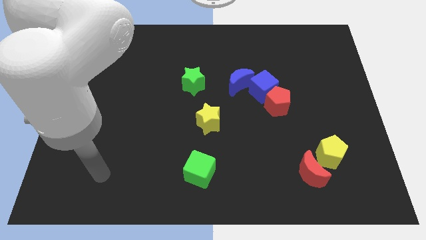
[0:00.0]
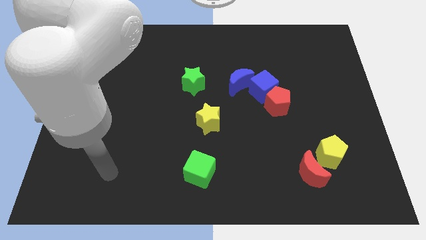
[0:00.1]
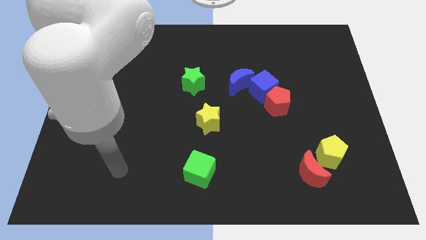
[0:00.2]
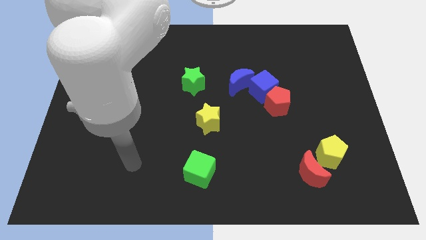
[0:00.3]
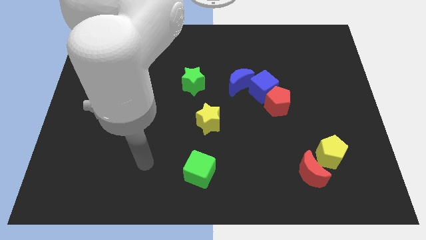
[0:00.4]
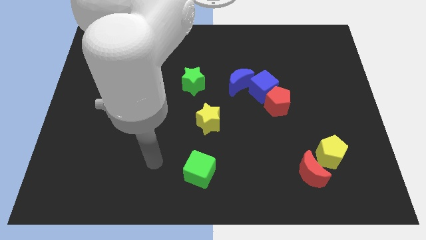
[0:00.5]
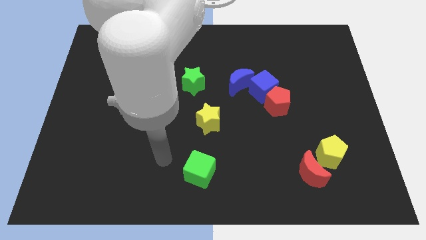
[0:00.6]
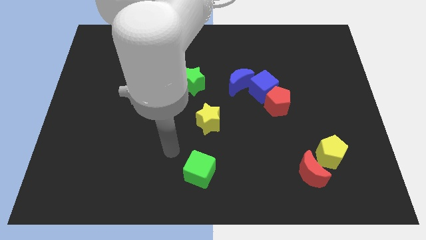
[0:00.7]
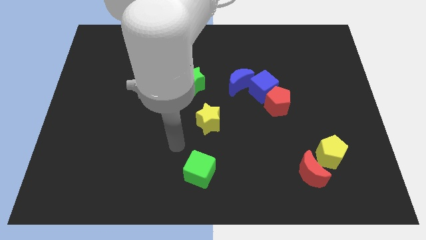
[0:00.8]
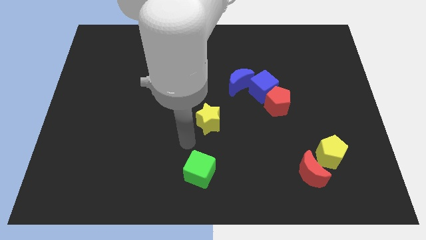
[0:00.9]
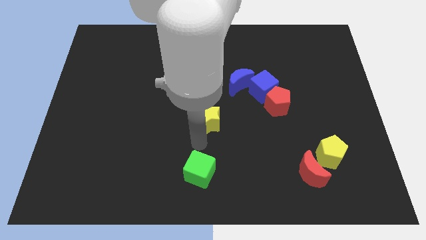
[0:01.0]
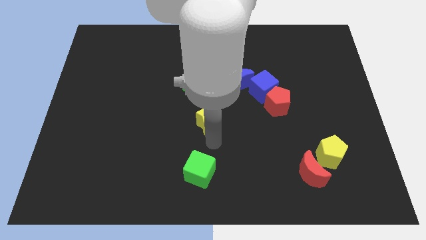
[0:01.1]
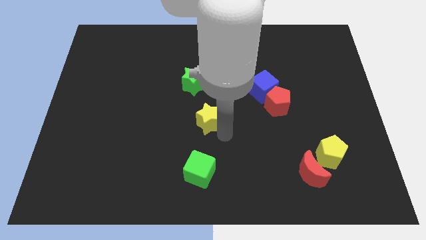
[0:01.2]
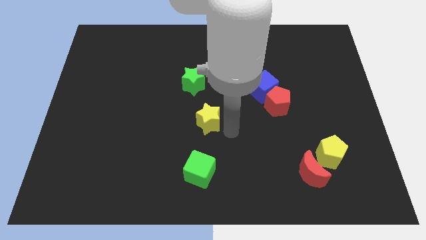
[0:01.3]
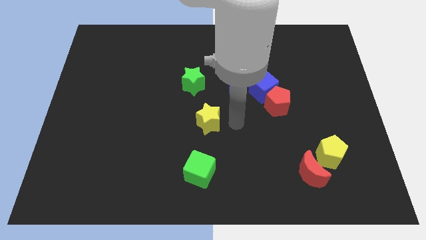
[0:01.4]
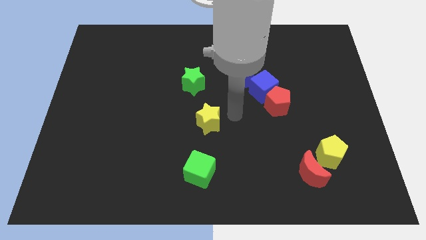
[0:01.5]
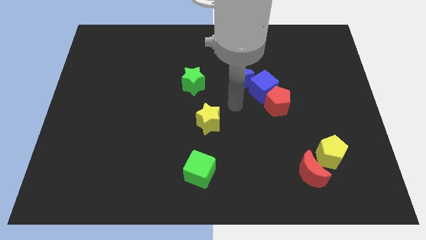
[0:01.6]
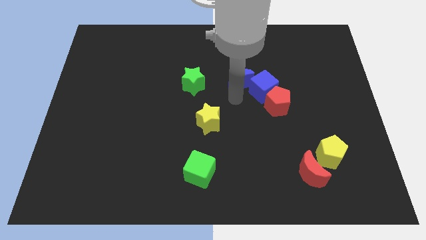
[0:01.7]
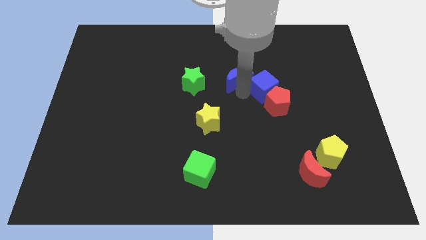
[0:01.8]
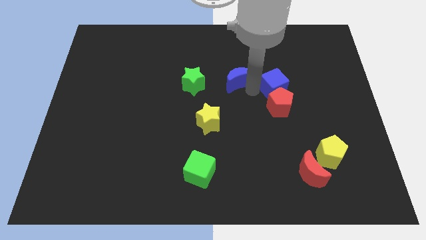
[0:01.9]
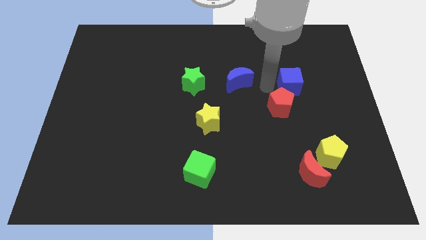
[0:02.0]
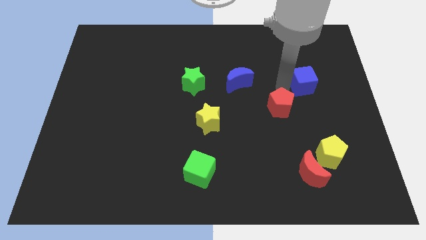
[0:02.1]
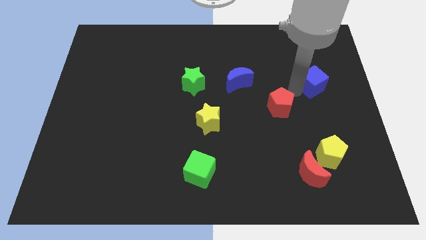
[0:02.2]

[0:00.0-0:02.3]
pull the red pentagon apart from the blue cube

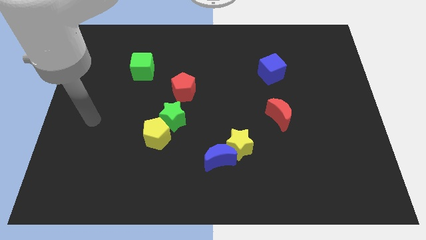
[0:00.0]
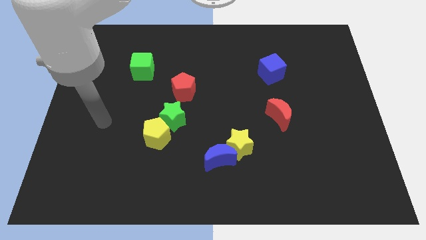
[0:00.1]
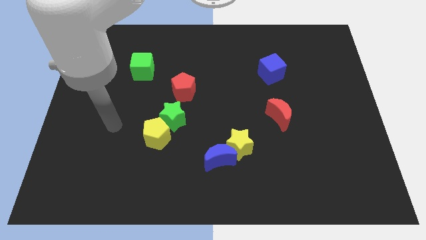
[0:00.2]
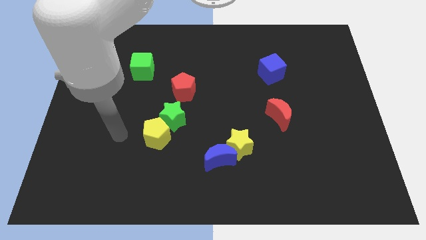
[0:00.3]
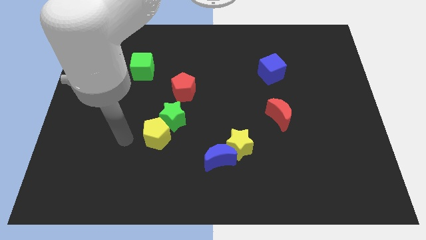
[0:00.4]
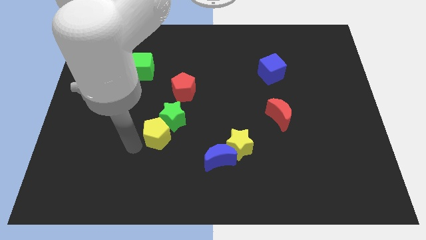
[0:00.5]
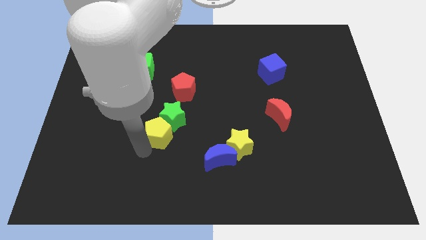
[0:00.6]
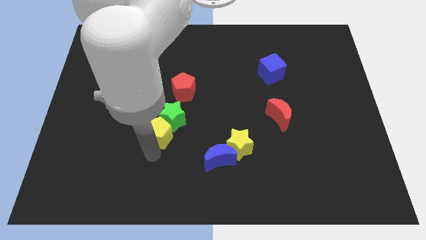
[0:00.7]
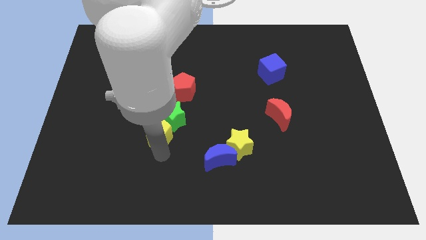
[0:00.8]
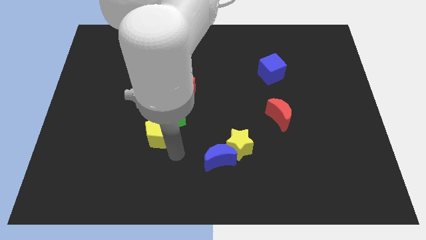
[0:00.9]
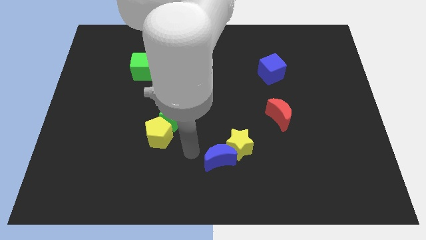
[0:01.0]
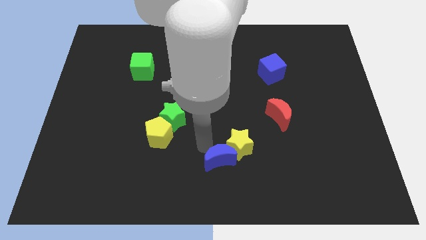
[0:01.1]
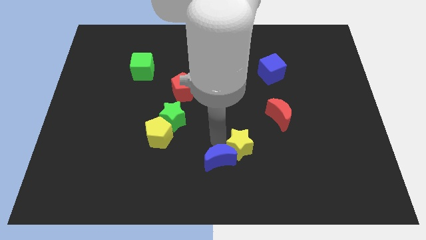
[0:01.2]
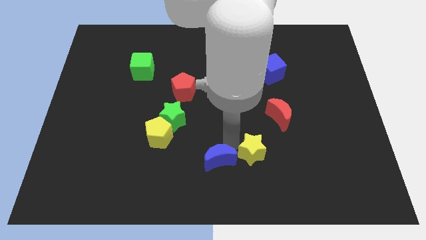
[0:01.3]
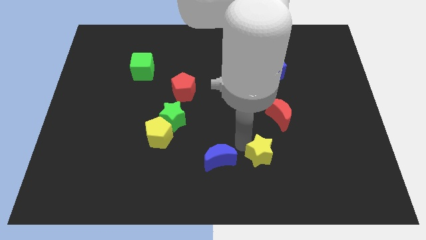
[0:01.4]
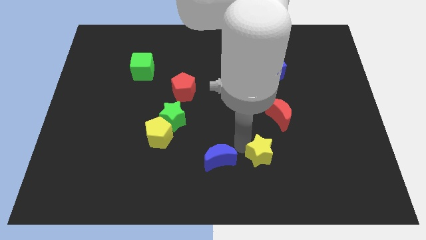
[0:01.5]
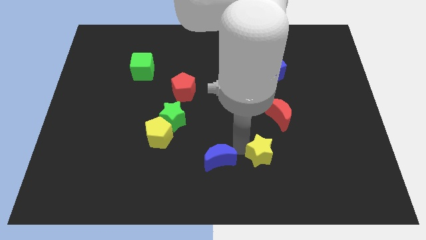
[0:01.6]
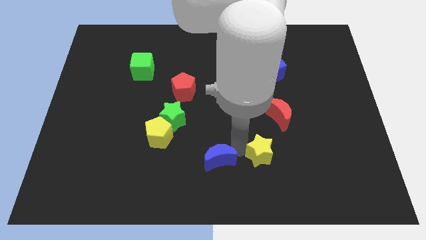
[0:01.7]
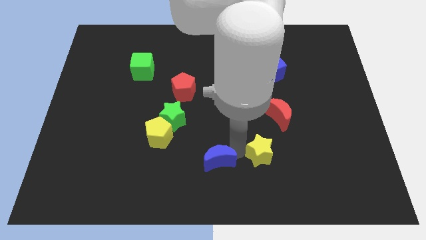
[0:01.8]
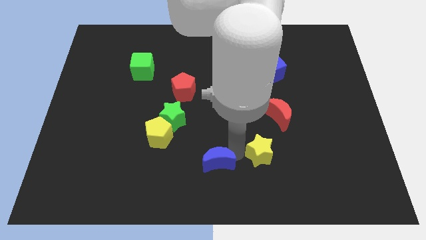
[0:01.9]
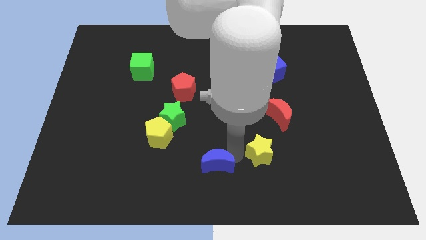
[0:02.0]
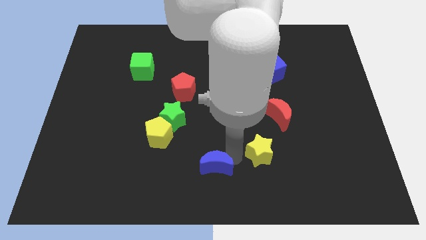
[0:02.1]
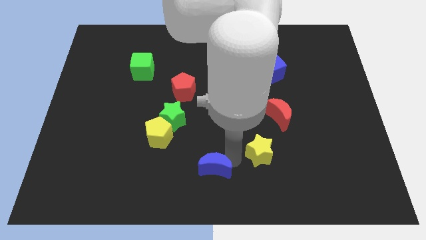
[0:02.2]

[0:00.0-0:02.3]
move the blue moon away from the yellow star

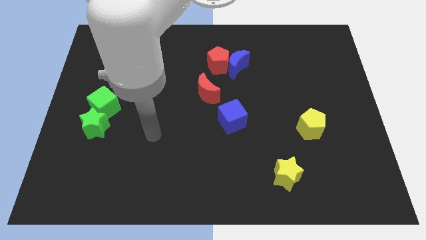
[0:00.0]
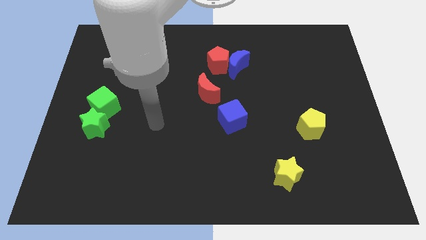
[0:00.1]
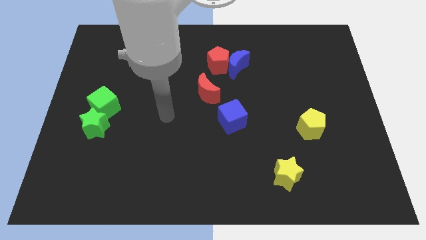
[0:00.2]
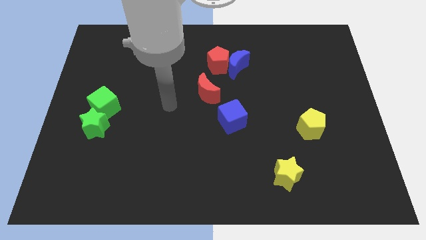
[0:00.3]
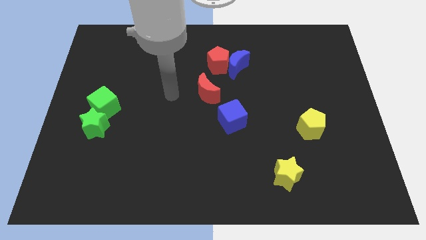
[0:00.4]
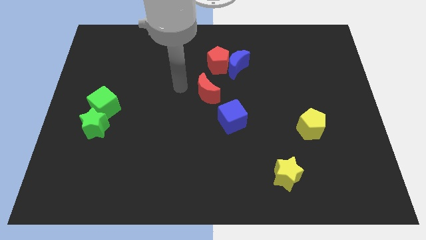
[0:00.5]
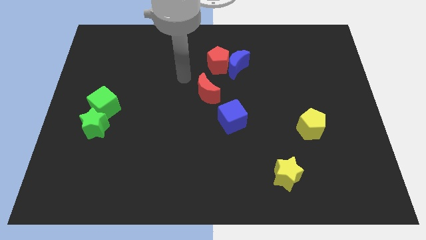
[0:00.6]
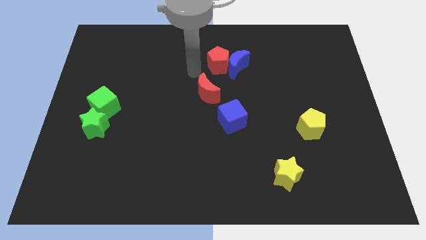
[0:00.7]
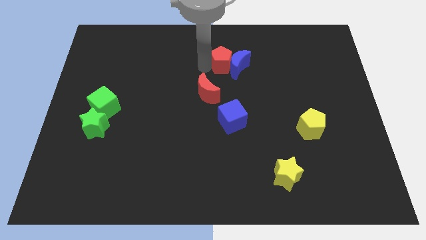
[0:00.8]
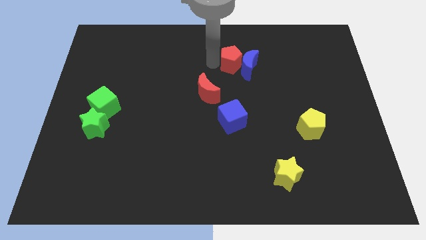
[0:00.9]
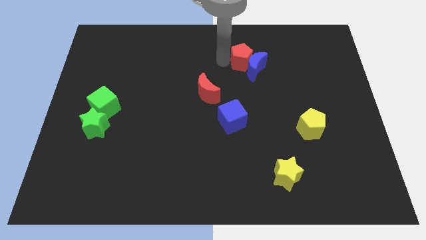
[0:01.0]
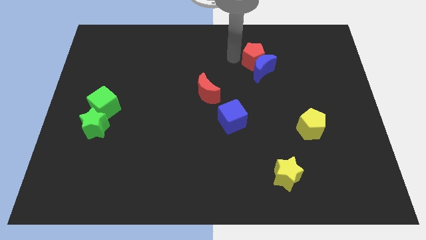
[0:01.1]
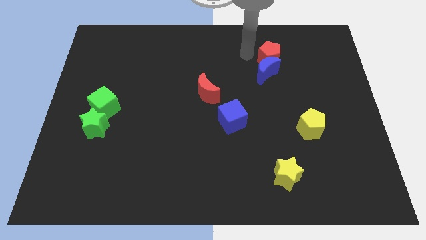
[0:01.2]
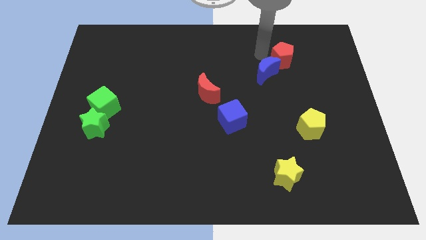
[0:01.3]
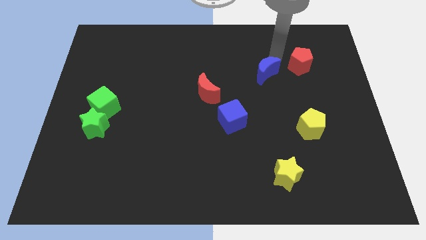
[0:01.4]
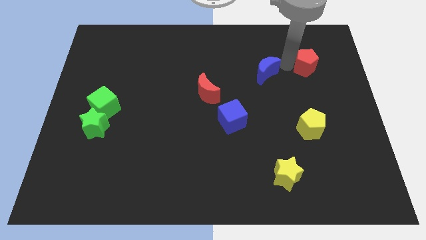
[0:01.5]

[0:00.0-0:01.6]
move the blue moon away from the red pentagon

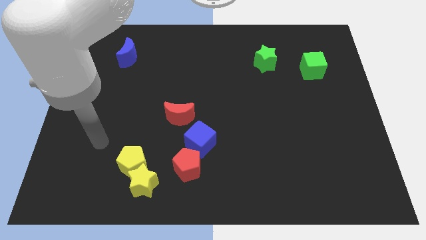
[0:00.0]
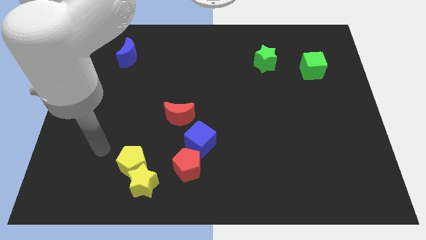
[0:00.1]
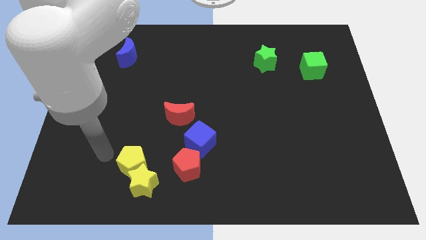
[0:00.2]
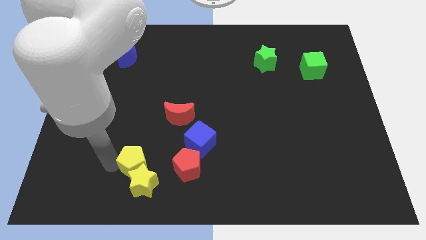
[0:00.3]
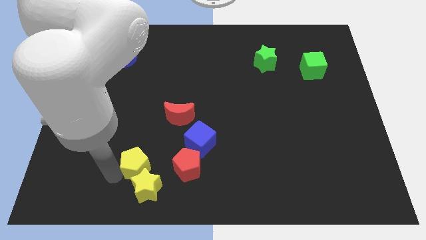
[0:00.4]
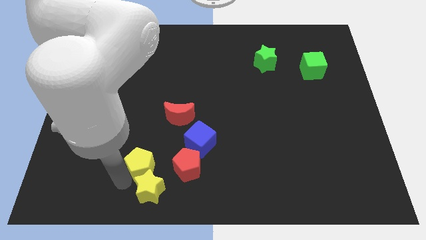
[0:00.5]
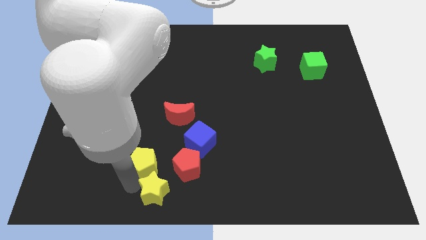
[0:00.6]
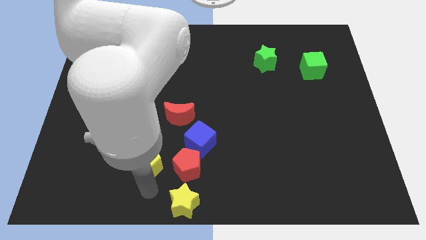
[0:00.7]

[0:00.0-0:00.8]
move the yellow pentagon away from the yellow star

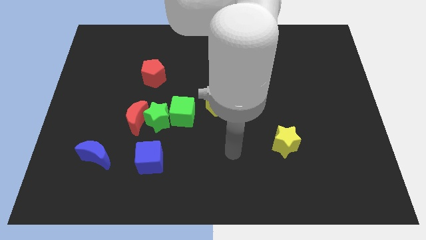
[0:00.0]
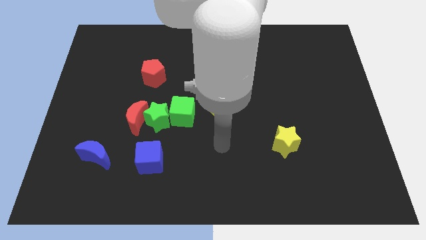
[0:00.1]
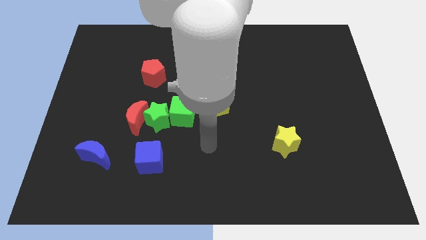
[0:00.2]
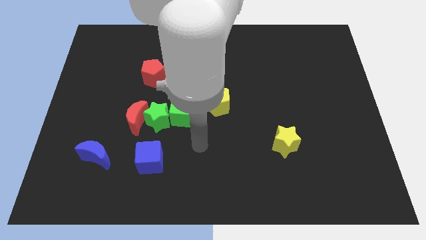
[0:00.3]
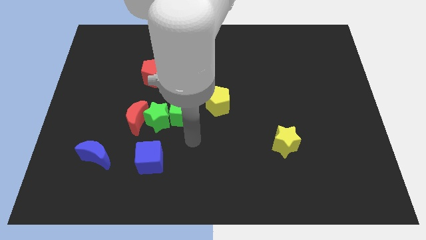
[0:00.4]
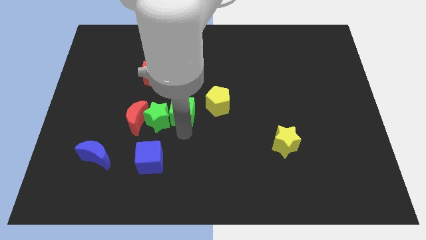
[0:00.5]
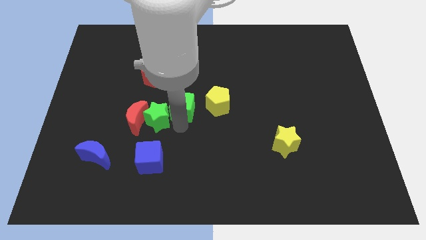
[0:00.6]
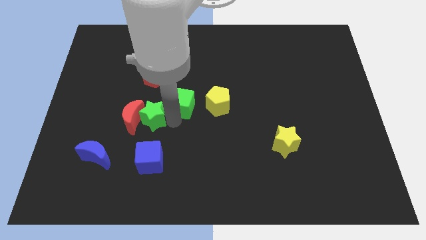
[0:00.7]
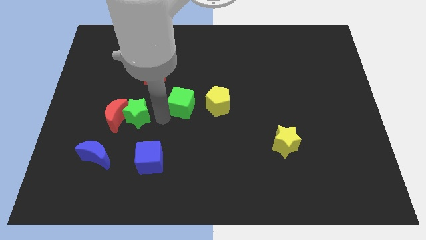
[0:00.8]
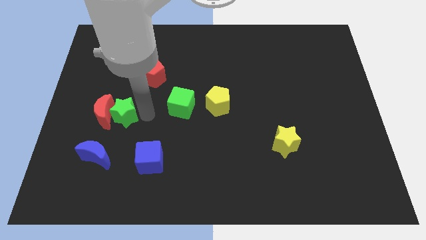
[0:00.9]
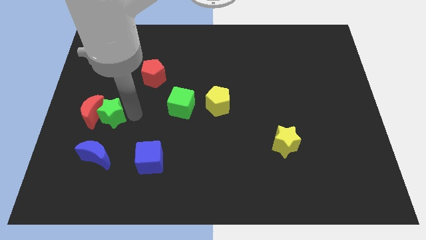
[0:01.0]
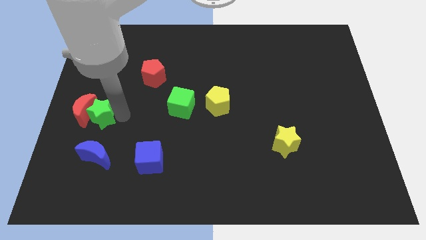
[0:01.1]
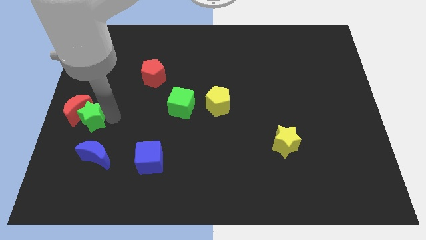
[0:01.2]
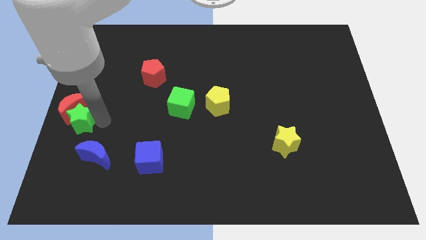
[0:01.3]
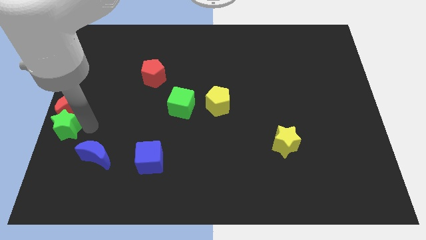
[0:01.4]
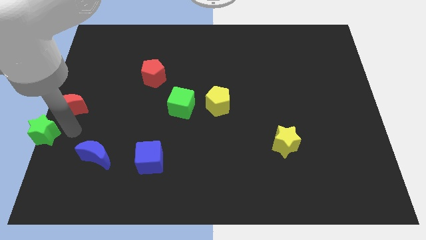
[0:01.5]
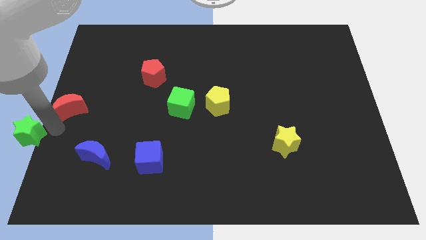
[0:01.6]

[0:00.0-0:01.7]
move the red moon away from the green star

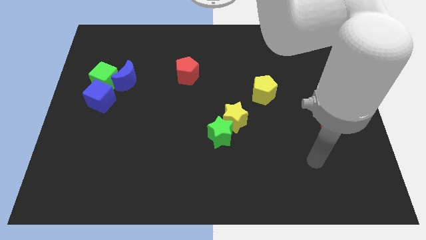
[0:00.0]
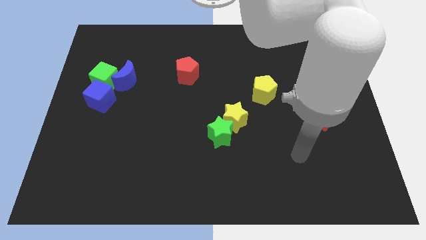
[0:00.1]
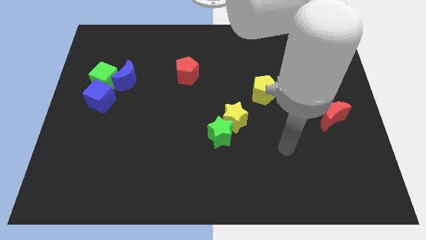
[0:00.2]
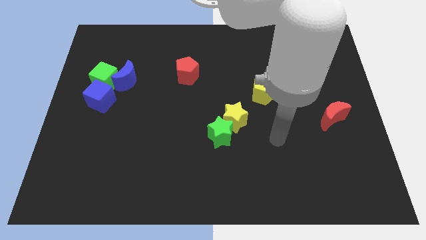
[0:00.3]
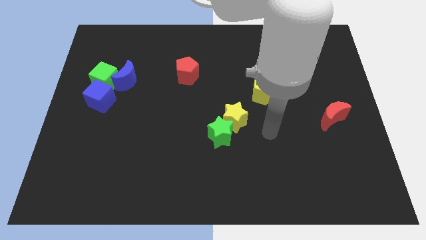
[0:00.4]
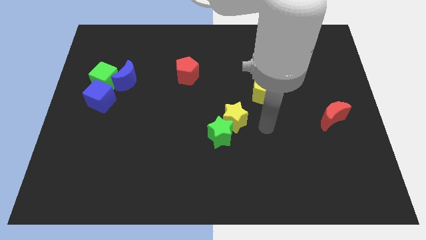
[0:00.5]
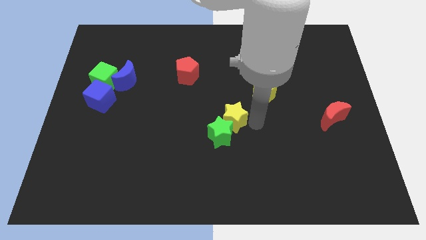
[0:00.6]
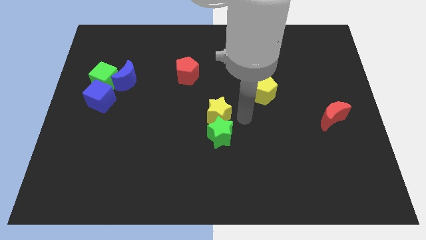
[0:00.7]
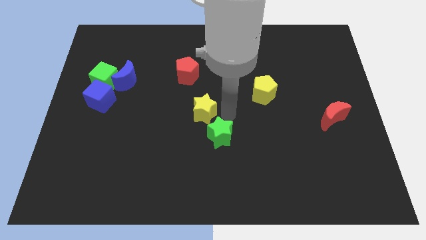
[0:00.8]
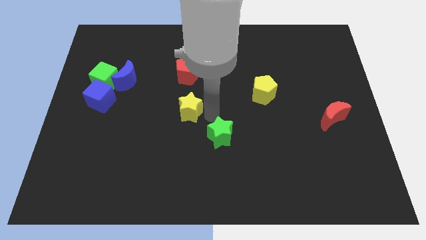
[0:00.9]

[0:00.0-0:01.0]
separate the green star from the yellow star
